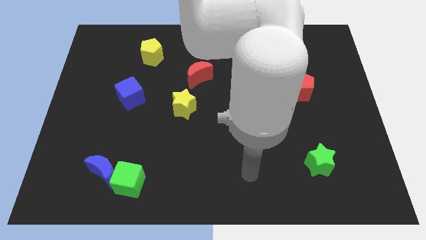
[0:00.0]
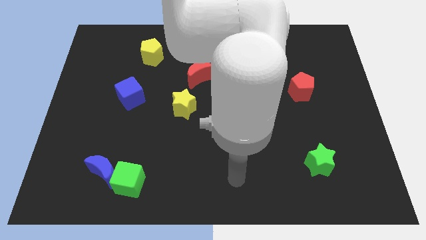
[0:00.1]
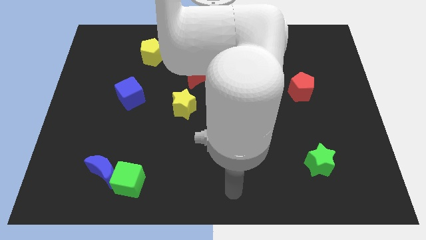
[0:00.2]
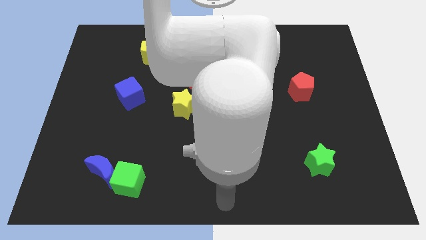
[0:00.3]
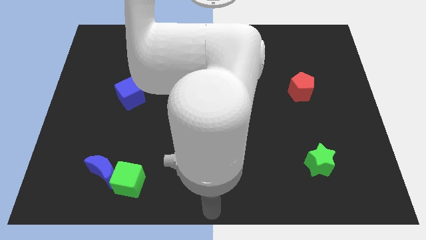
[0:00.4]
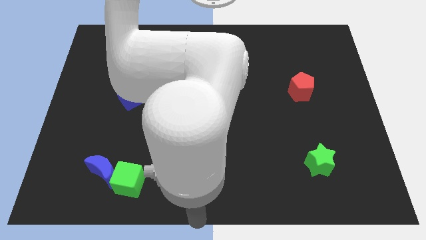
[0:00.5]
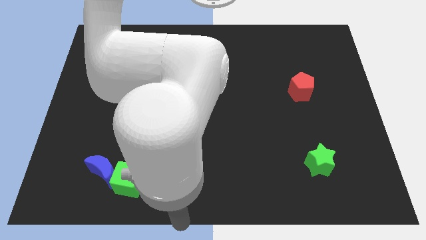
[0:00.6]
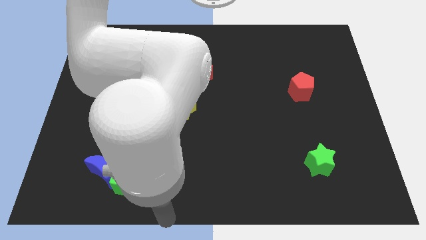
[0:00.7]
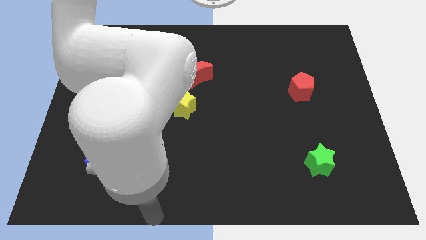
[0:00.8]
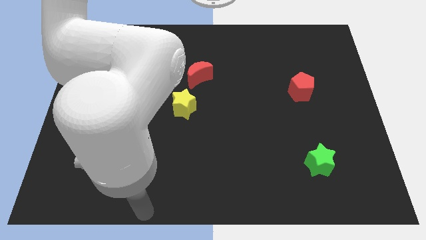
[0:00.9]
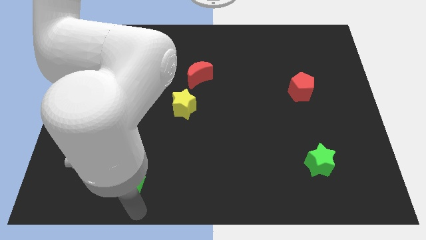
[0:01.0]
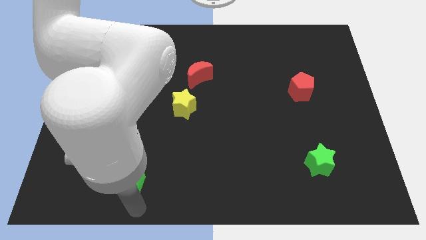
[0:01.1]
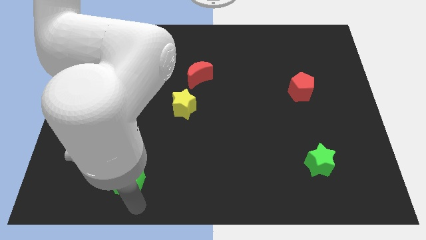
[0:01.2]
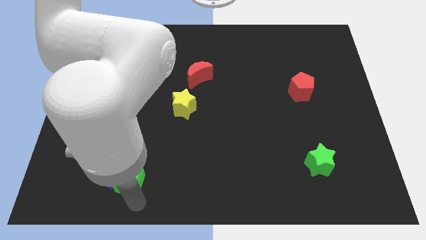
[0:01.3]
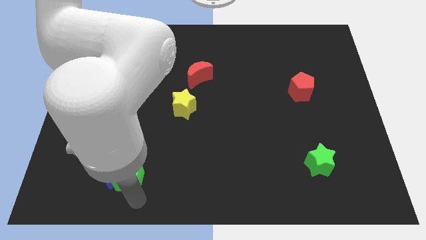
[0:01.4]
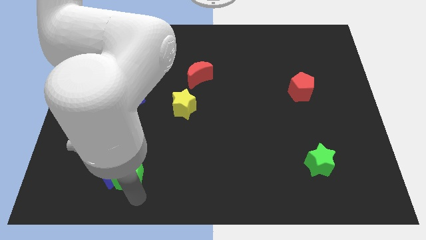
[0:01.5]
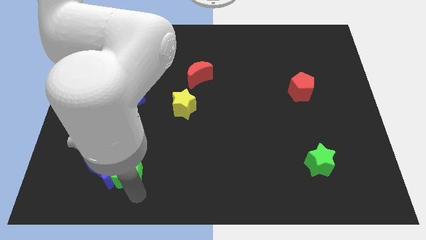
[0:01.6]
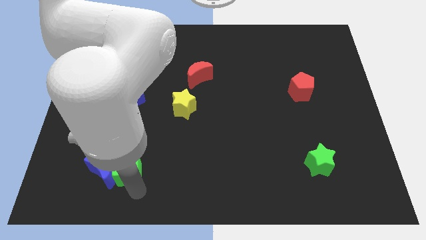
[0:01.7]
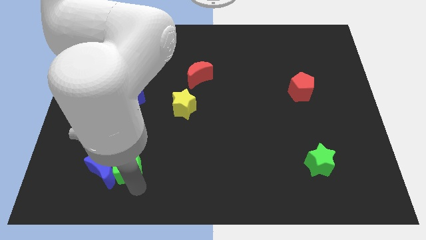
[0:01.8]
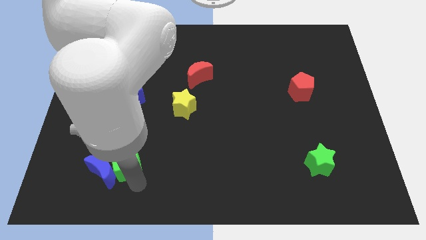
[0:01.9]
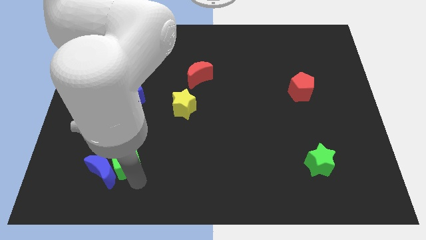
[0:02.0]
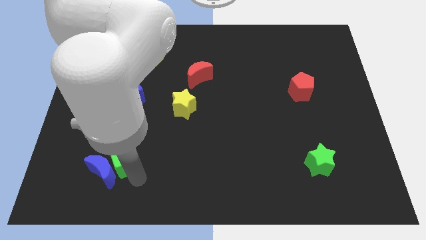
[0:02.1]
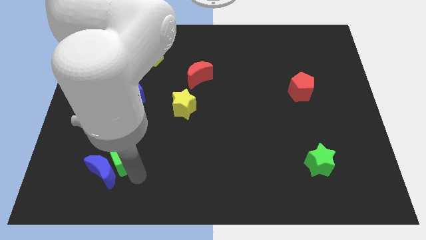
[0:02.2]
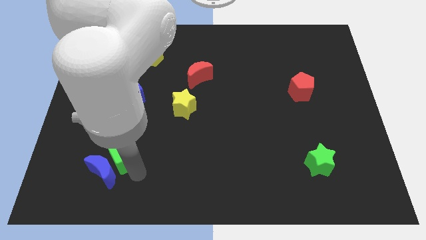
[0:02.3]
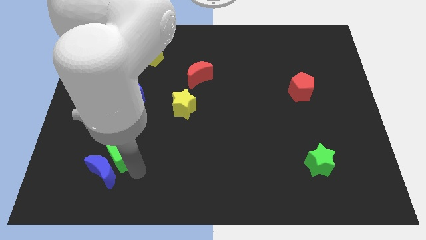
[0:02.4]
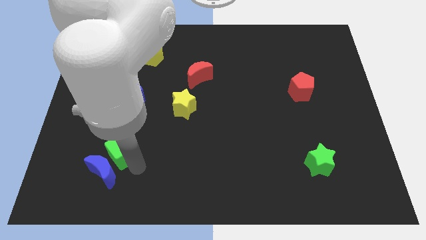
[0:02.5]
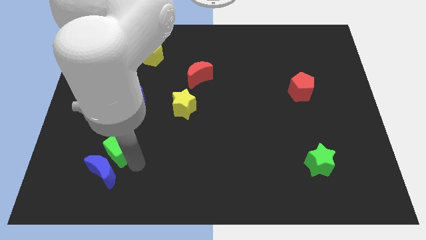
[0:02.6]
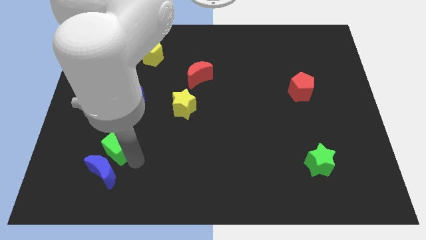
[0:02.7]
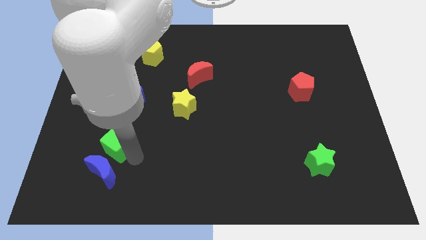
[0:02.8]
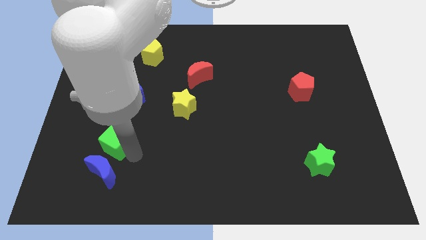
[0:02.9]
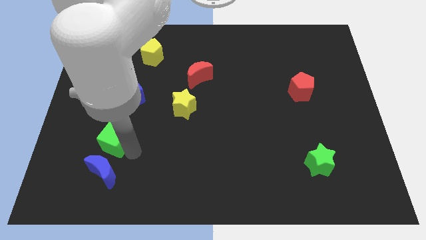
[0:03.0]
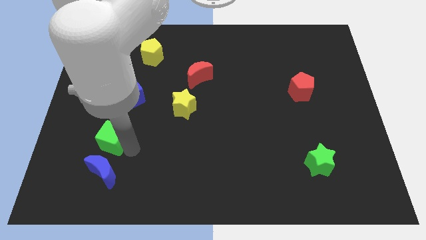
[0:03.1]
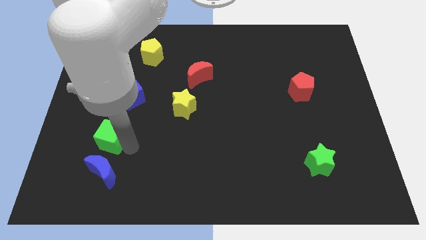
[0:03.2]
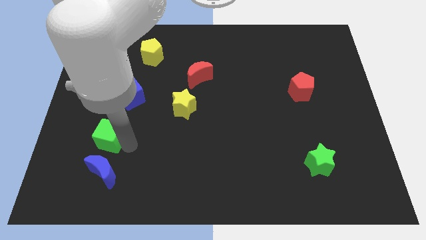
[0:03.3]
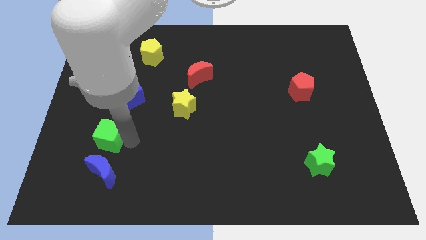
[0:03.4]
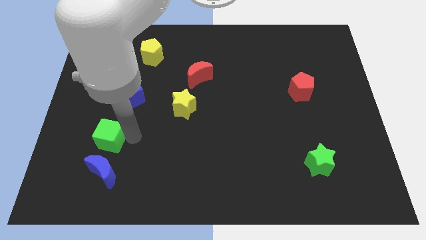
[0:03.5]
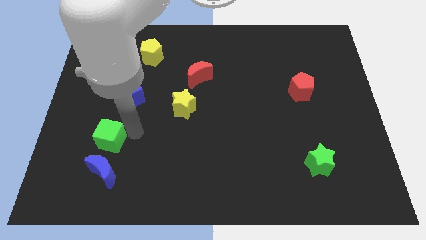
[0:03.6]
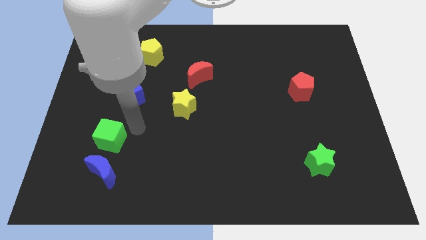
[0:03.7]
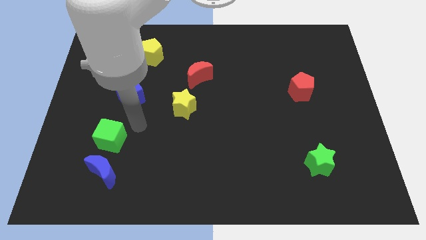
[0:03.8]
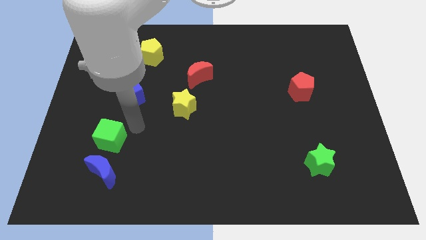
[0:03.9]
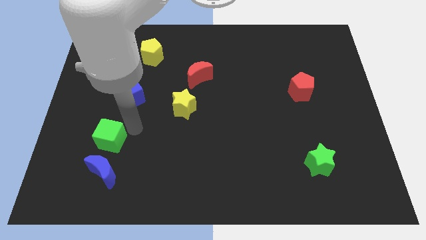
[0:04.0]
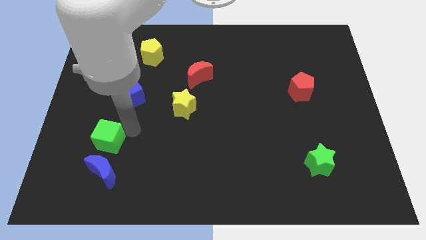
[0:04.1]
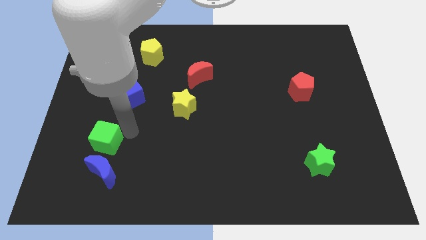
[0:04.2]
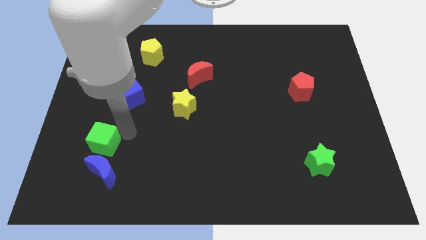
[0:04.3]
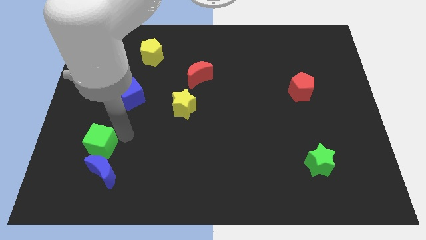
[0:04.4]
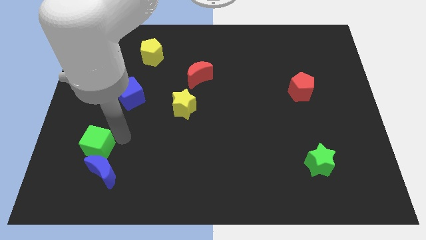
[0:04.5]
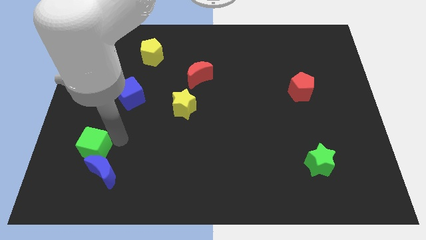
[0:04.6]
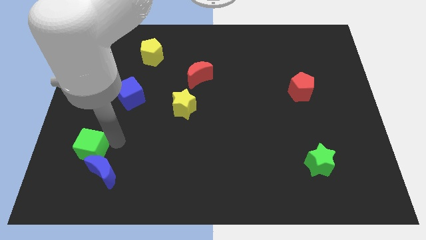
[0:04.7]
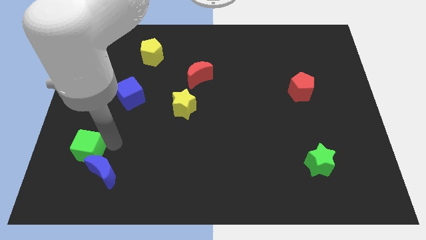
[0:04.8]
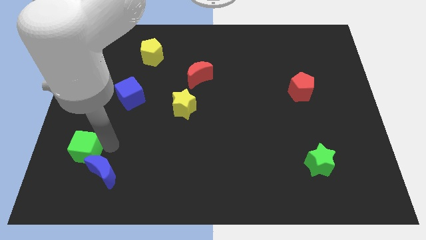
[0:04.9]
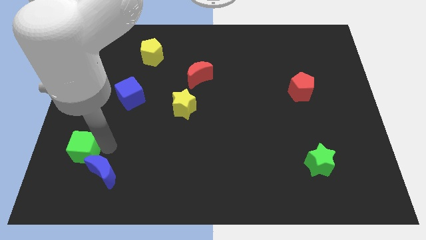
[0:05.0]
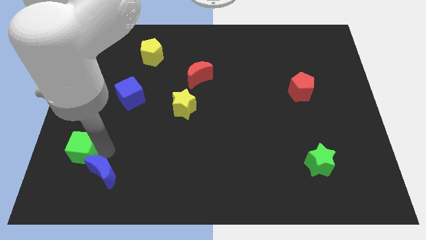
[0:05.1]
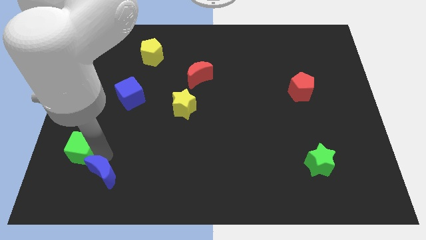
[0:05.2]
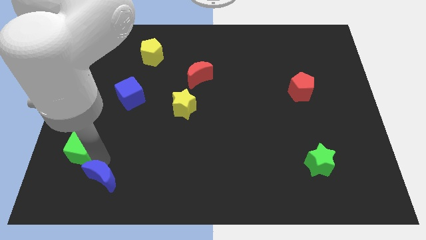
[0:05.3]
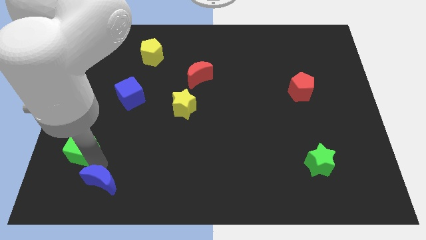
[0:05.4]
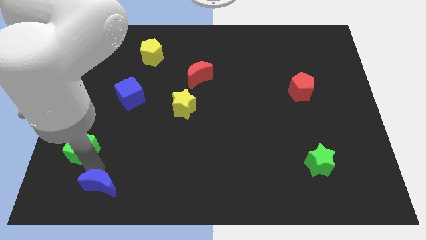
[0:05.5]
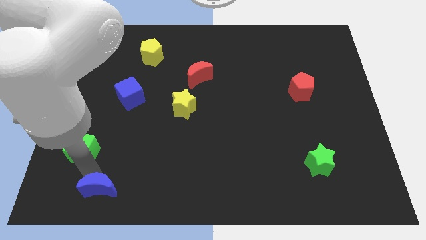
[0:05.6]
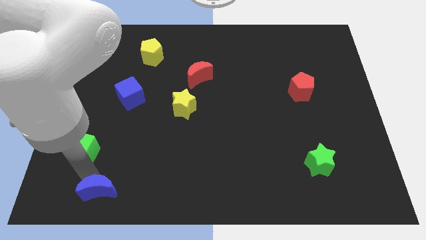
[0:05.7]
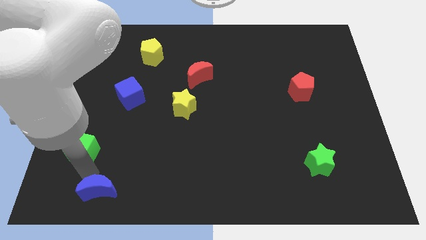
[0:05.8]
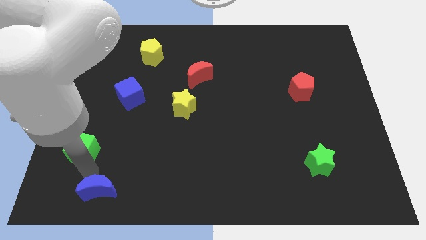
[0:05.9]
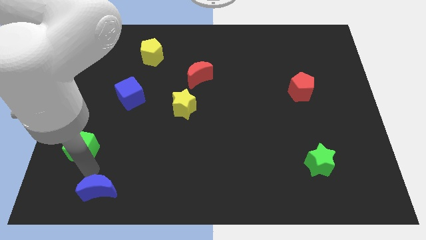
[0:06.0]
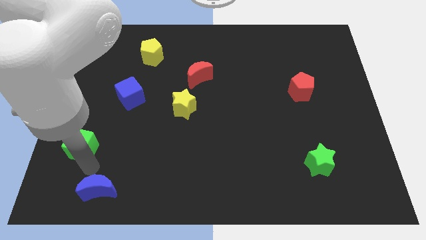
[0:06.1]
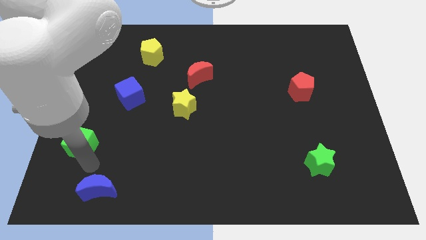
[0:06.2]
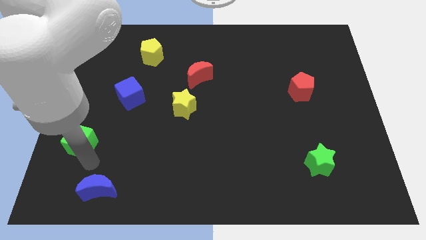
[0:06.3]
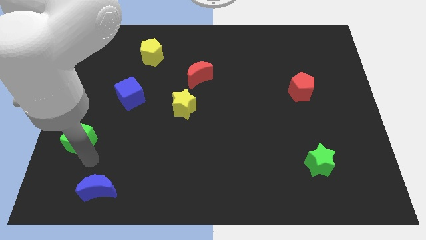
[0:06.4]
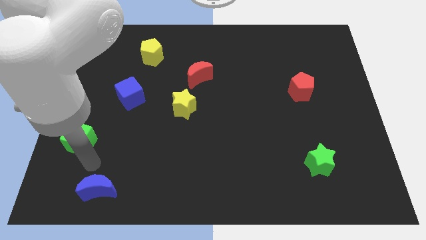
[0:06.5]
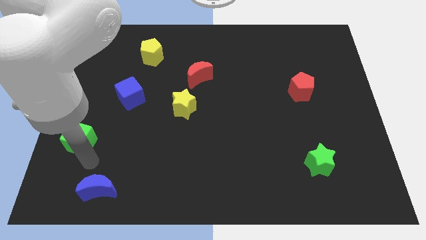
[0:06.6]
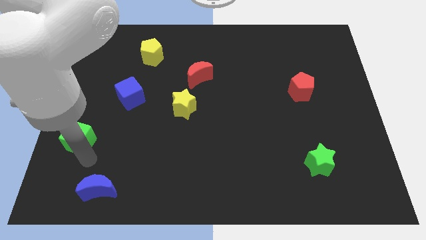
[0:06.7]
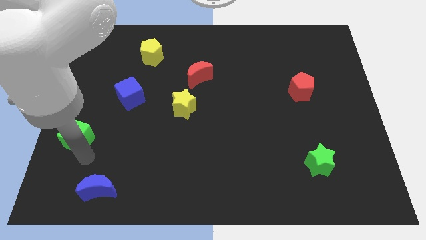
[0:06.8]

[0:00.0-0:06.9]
move the green cube to the left side
